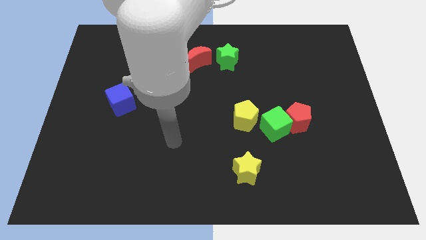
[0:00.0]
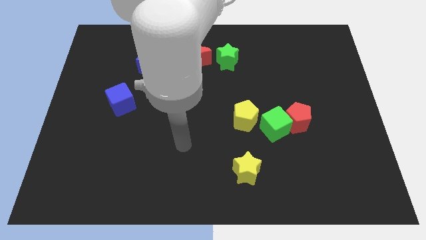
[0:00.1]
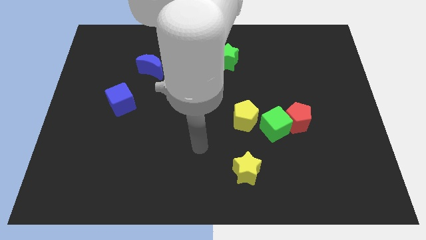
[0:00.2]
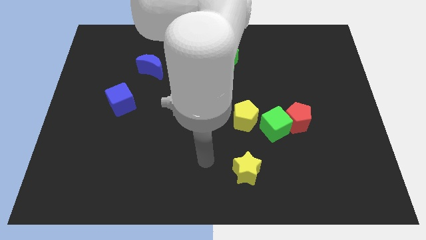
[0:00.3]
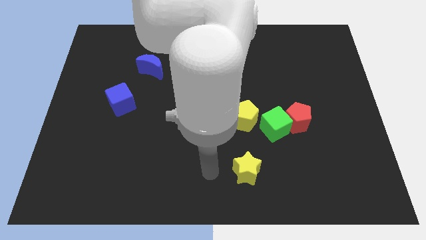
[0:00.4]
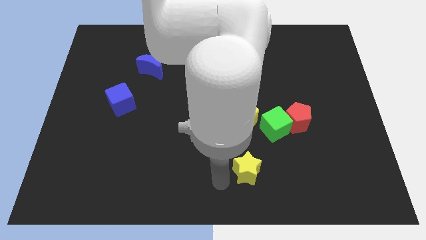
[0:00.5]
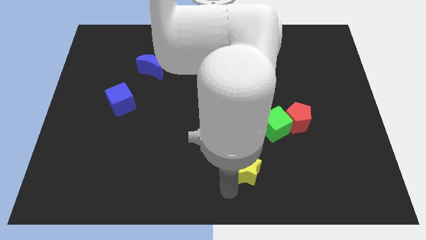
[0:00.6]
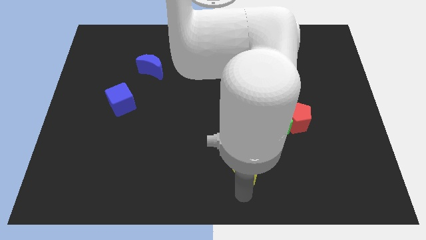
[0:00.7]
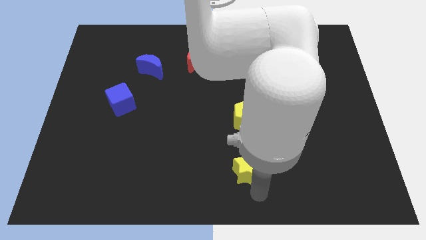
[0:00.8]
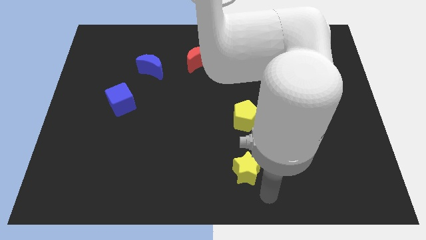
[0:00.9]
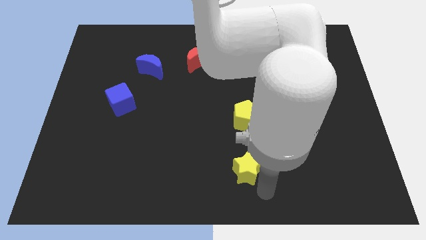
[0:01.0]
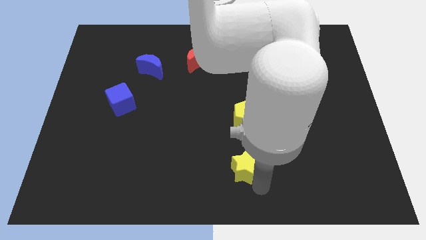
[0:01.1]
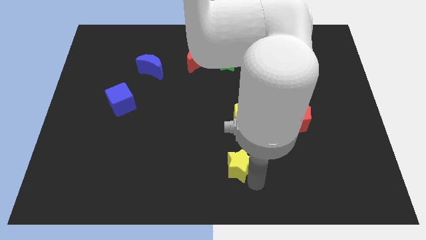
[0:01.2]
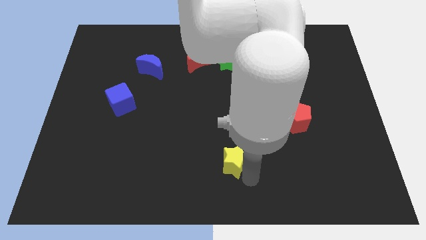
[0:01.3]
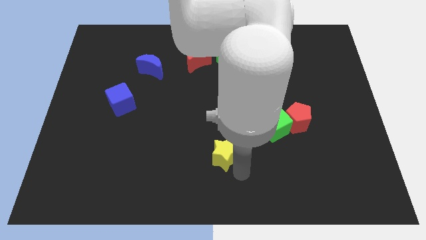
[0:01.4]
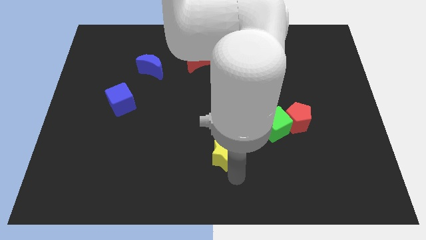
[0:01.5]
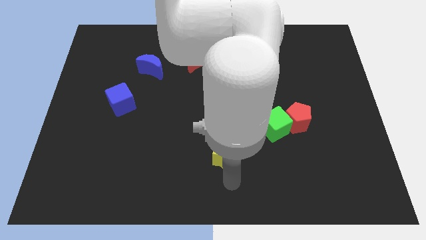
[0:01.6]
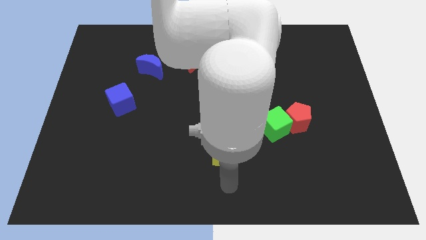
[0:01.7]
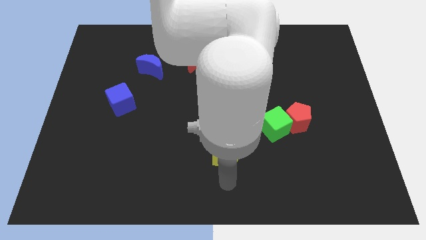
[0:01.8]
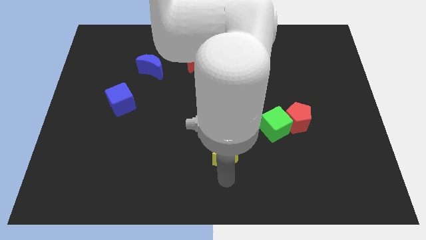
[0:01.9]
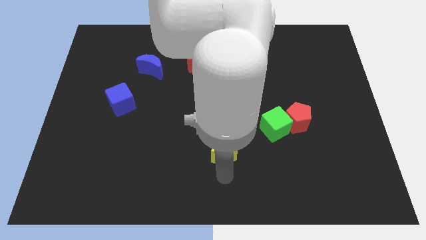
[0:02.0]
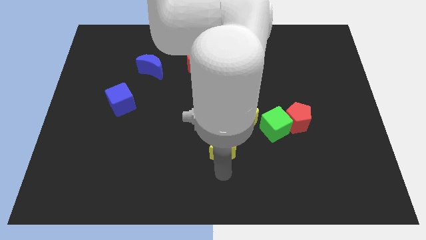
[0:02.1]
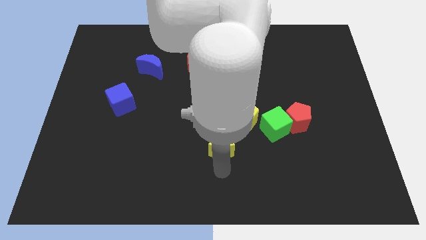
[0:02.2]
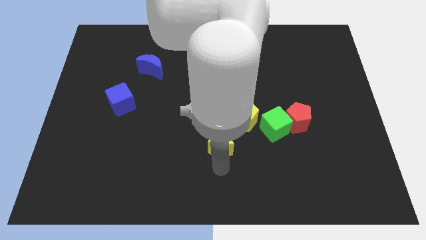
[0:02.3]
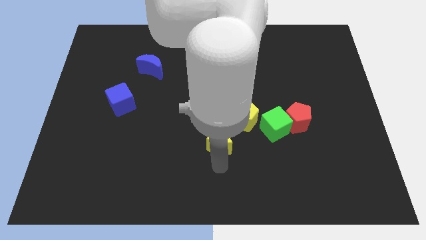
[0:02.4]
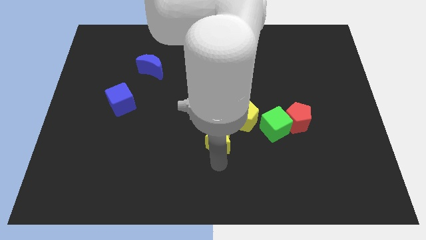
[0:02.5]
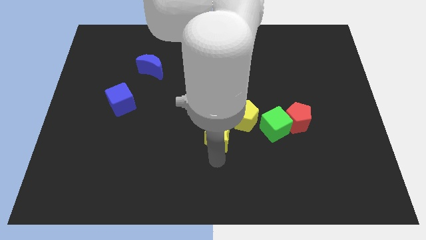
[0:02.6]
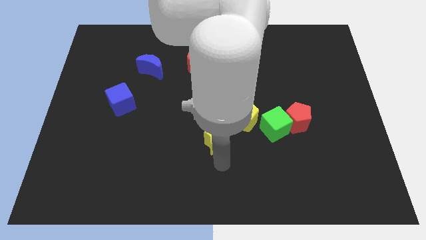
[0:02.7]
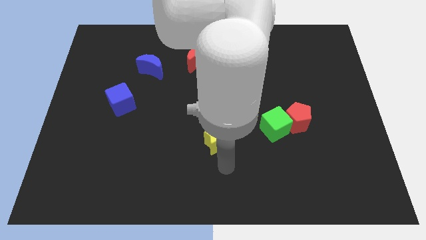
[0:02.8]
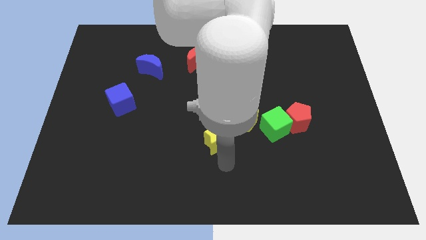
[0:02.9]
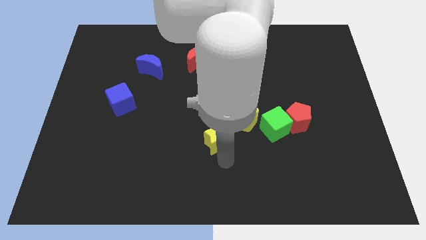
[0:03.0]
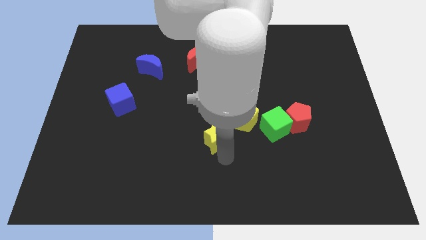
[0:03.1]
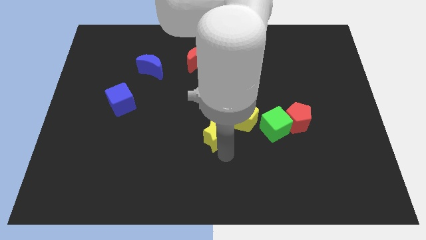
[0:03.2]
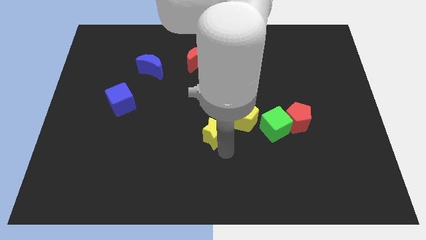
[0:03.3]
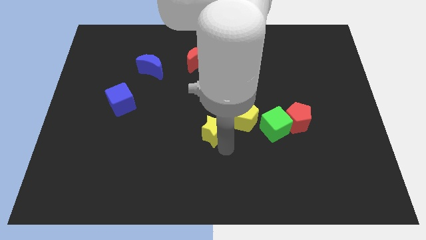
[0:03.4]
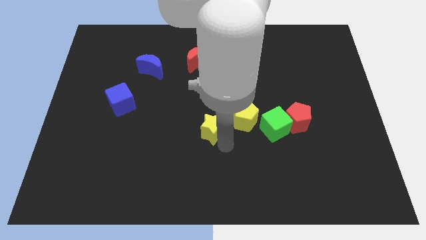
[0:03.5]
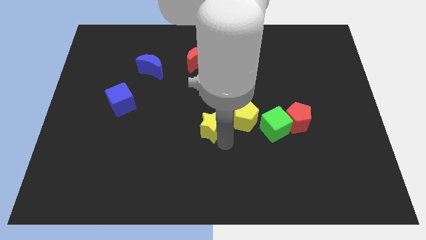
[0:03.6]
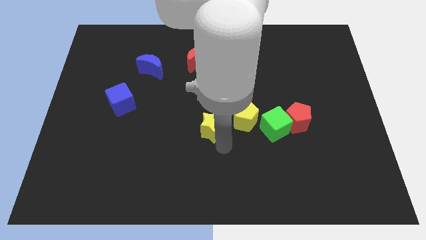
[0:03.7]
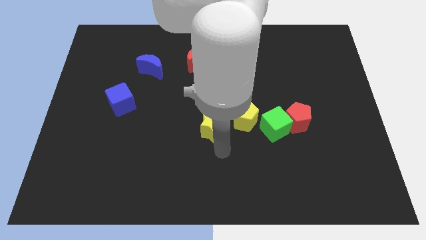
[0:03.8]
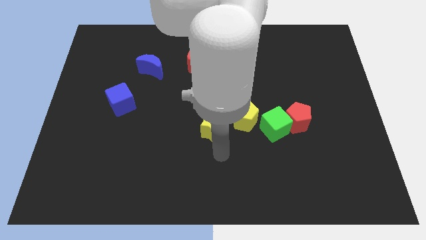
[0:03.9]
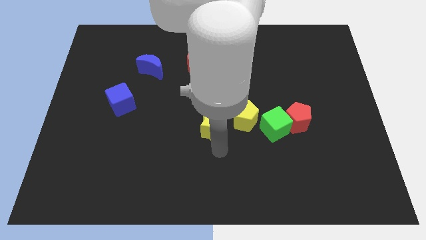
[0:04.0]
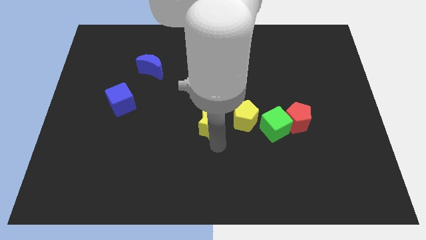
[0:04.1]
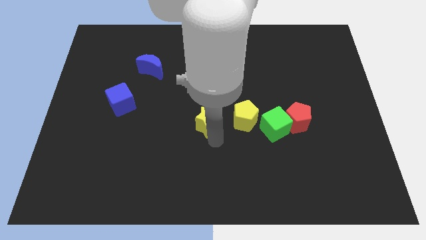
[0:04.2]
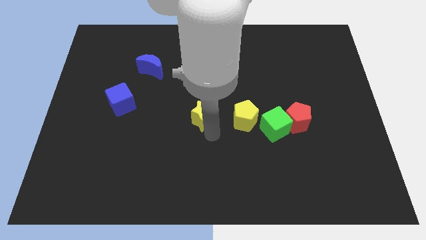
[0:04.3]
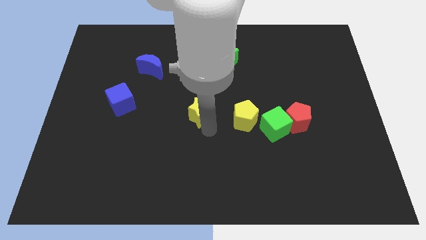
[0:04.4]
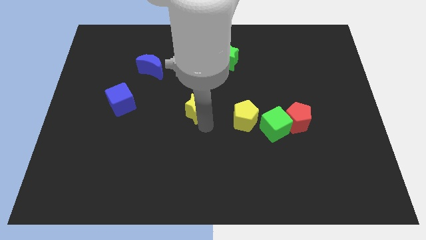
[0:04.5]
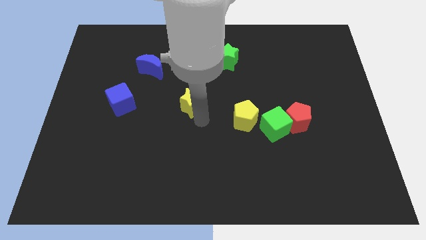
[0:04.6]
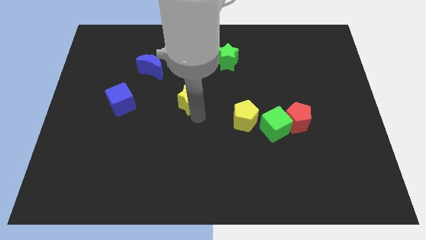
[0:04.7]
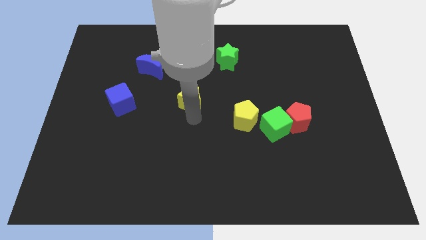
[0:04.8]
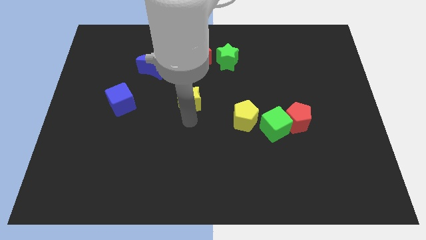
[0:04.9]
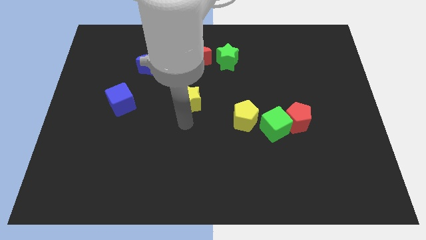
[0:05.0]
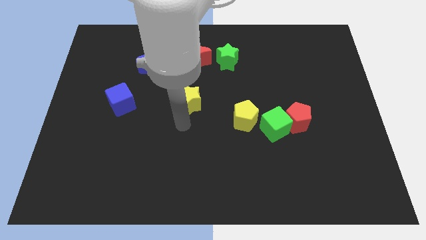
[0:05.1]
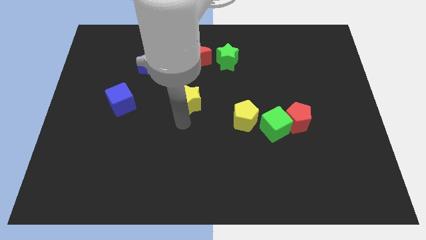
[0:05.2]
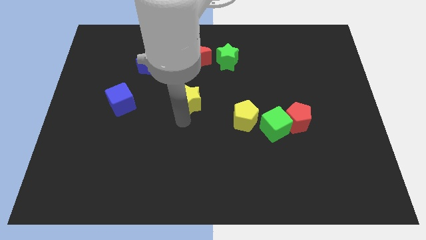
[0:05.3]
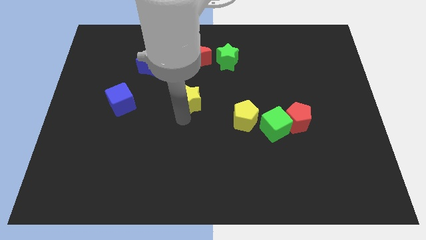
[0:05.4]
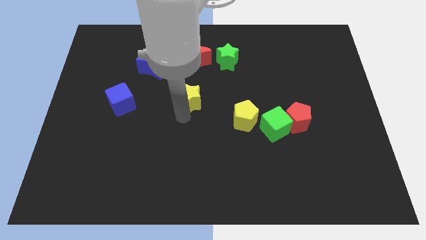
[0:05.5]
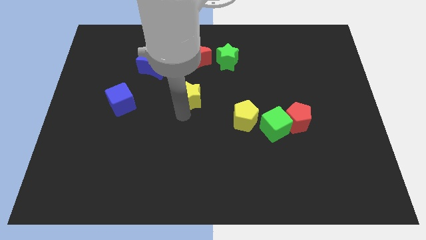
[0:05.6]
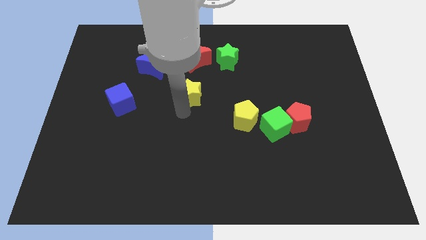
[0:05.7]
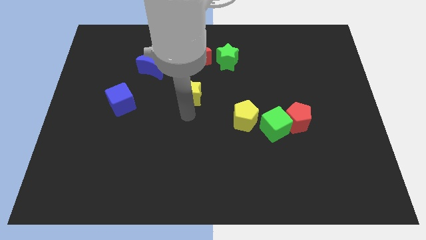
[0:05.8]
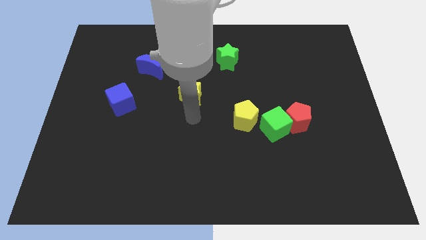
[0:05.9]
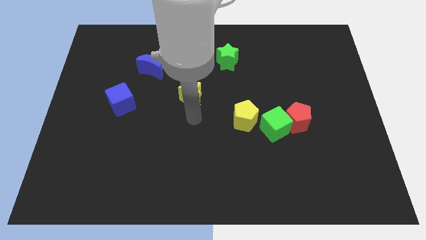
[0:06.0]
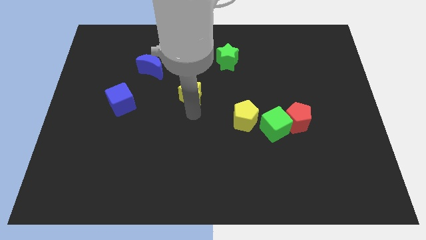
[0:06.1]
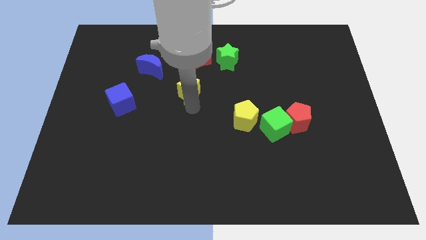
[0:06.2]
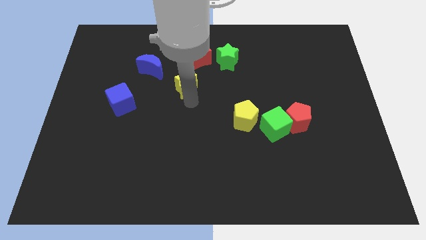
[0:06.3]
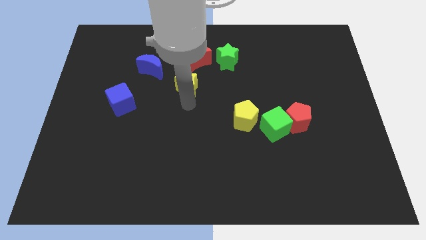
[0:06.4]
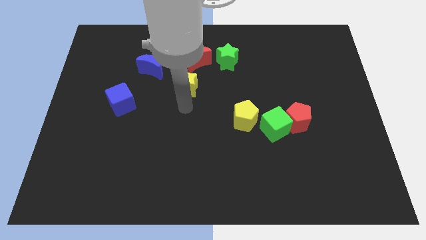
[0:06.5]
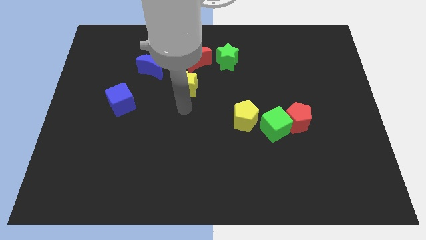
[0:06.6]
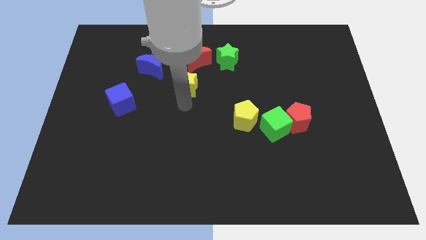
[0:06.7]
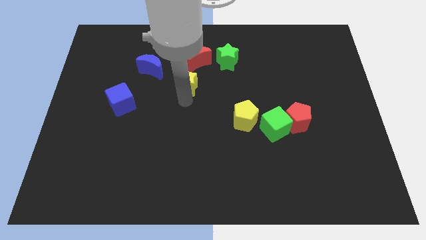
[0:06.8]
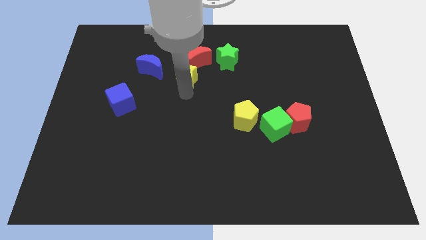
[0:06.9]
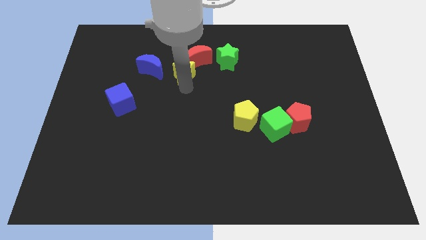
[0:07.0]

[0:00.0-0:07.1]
move the yellow star to the left side of the green star

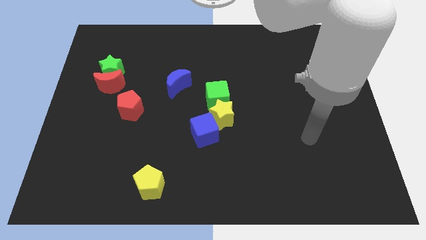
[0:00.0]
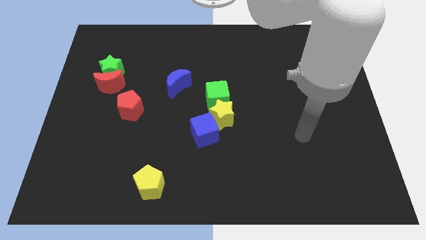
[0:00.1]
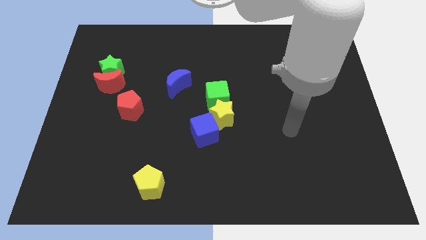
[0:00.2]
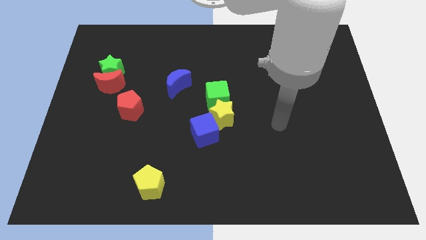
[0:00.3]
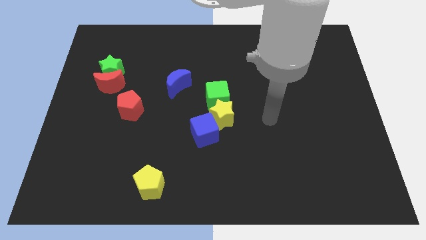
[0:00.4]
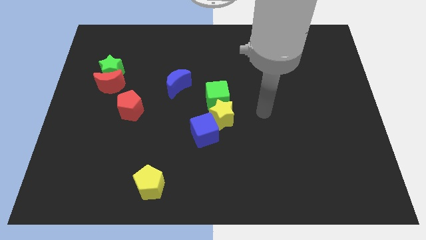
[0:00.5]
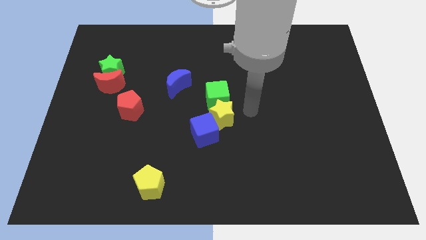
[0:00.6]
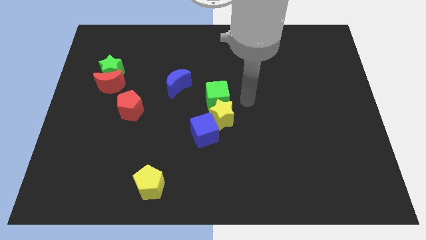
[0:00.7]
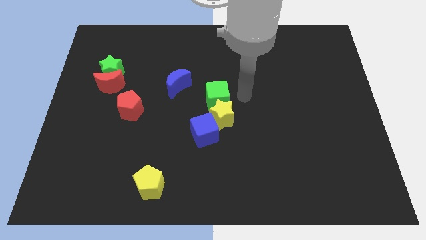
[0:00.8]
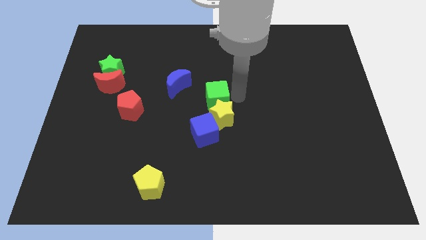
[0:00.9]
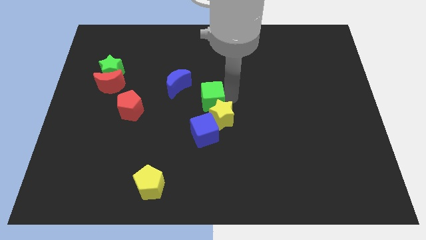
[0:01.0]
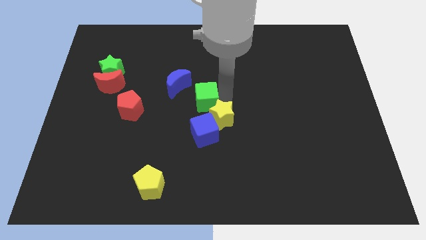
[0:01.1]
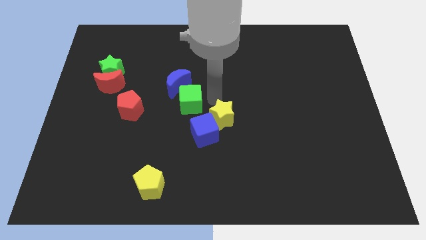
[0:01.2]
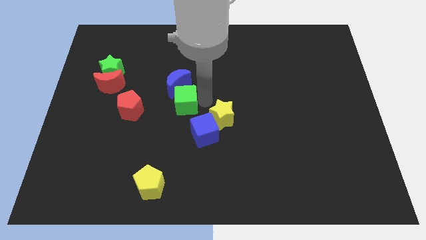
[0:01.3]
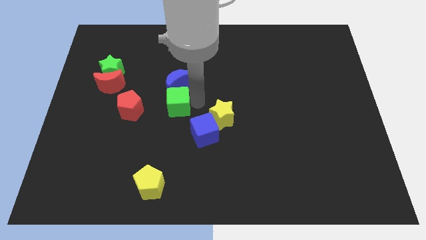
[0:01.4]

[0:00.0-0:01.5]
slide the green cube to the bottom left of the blue moon
